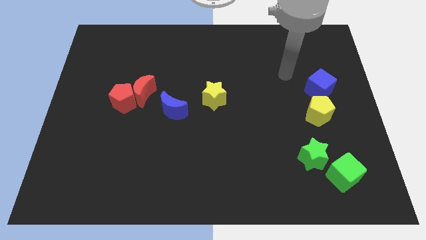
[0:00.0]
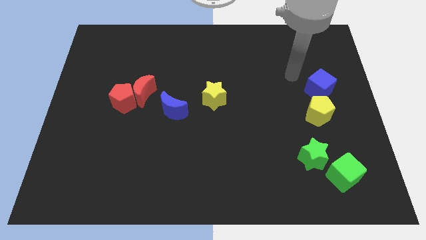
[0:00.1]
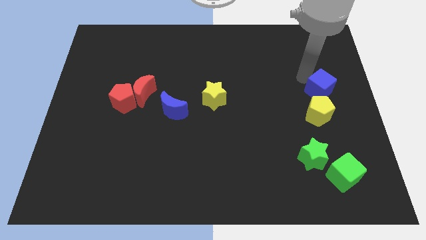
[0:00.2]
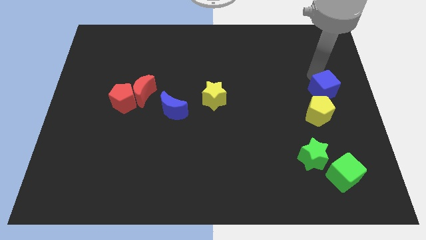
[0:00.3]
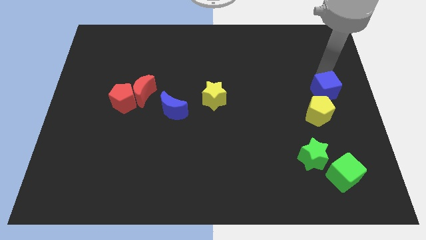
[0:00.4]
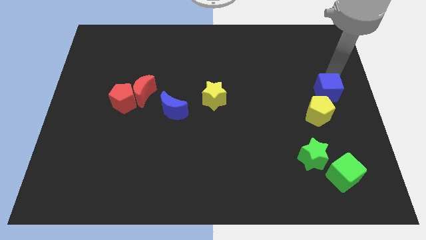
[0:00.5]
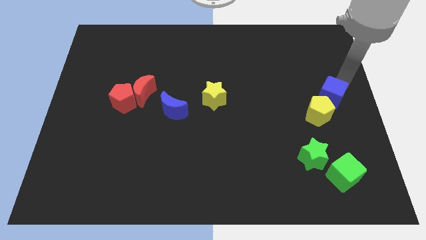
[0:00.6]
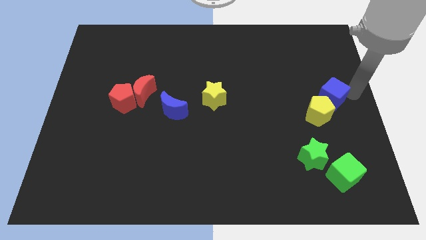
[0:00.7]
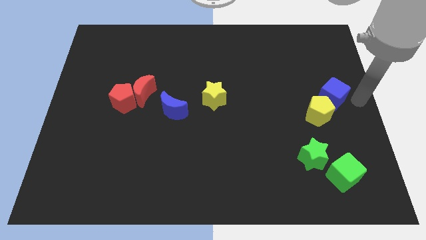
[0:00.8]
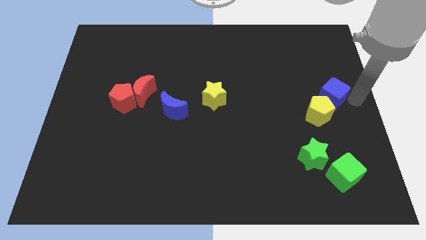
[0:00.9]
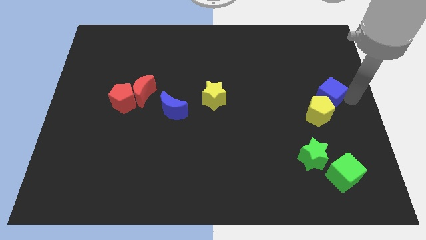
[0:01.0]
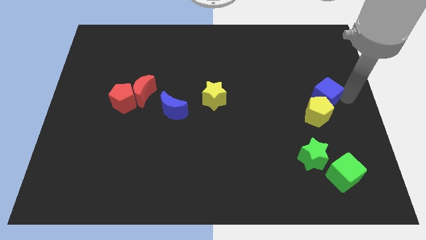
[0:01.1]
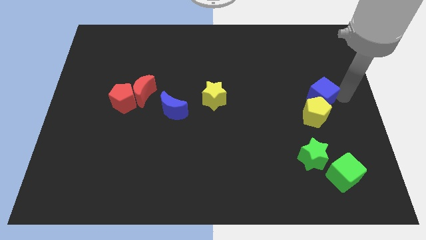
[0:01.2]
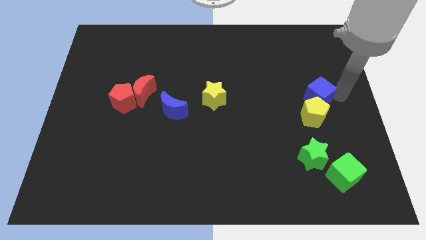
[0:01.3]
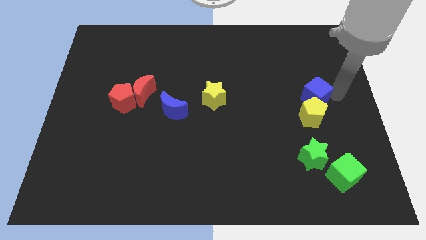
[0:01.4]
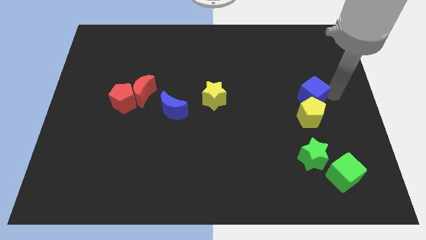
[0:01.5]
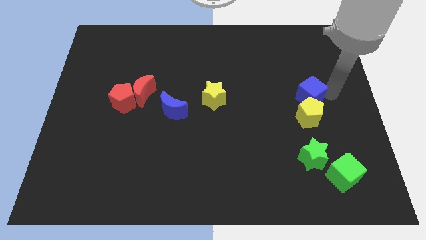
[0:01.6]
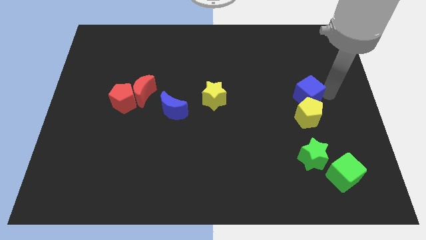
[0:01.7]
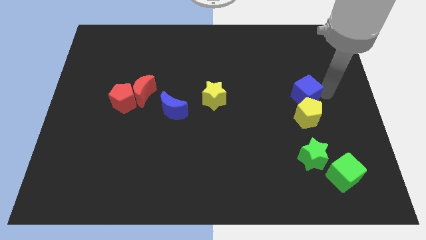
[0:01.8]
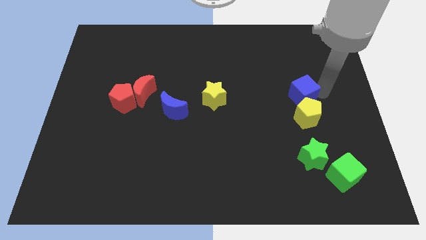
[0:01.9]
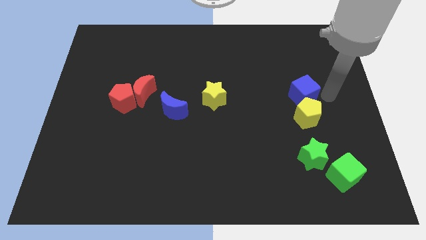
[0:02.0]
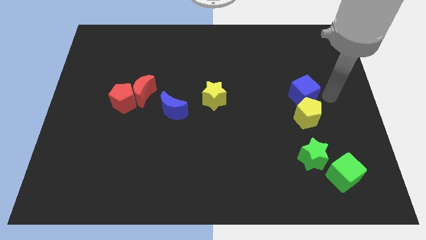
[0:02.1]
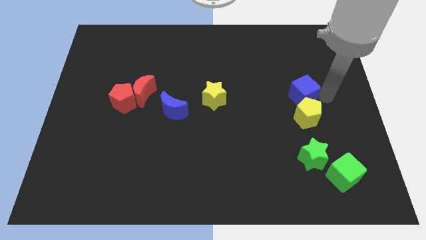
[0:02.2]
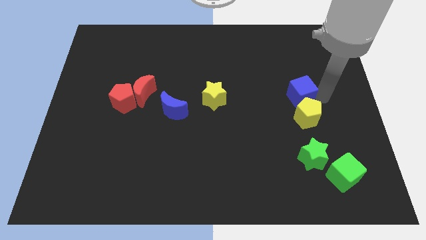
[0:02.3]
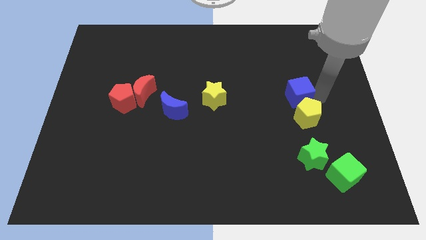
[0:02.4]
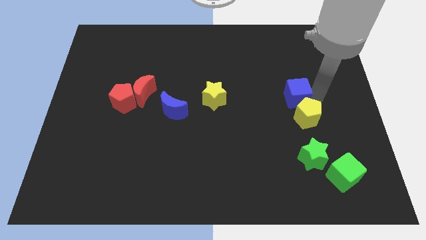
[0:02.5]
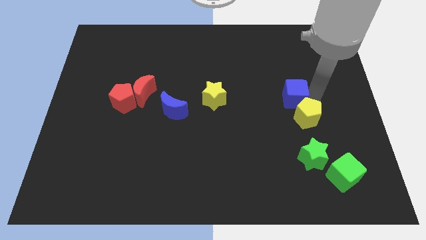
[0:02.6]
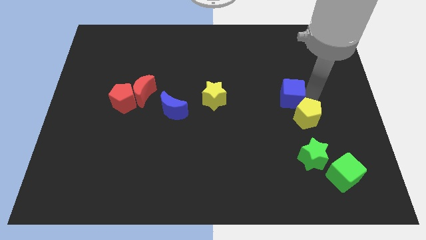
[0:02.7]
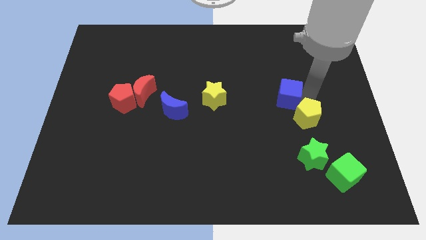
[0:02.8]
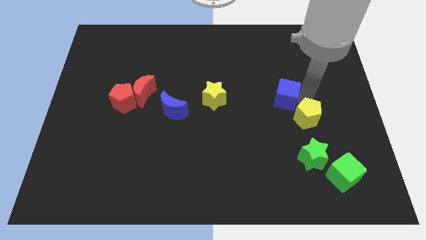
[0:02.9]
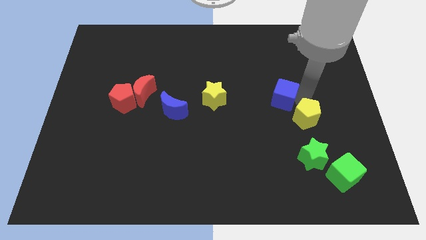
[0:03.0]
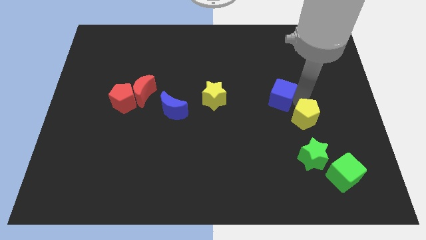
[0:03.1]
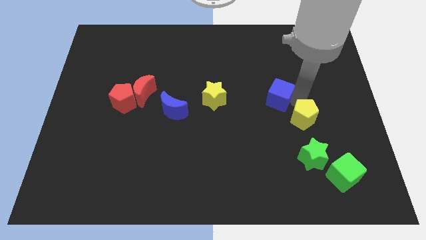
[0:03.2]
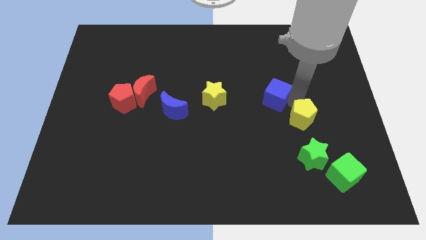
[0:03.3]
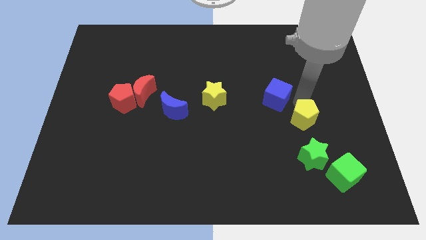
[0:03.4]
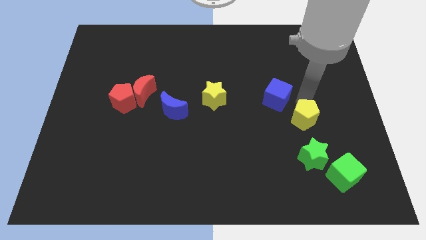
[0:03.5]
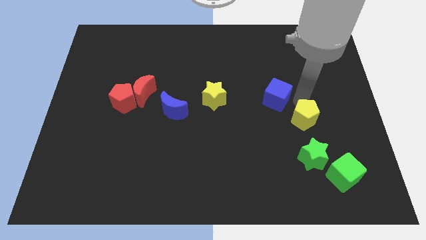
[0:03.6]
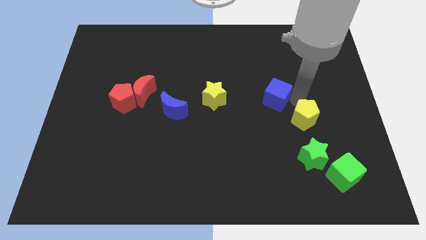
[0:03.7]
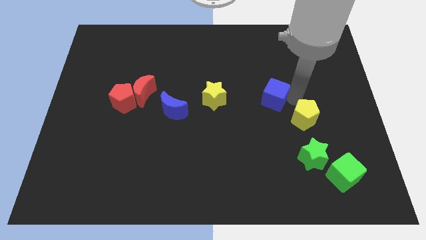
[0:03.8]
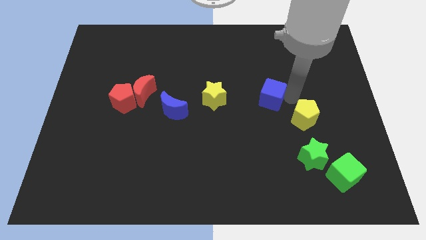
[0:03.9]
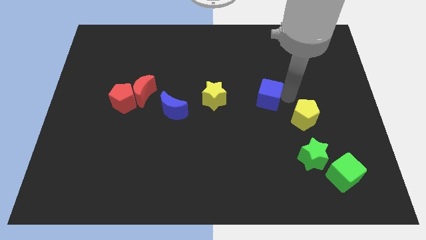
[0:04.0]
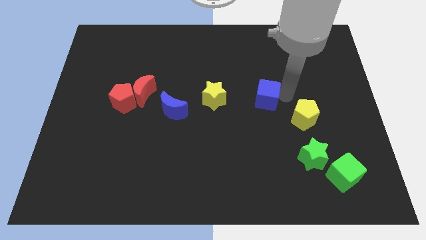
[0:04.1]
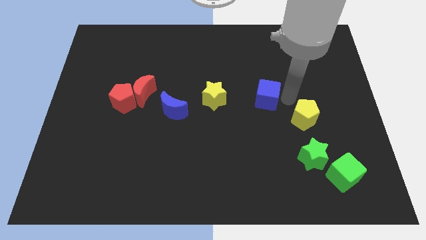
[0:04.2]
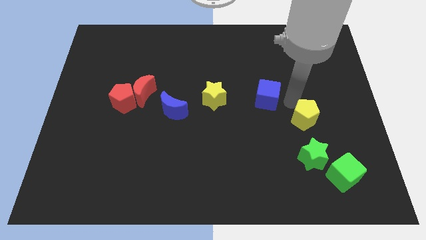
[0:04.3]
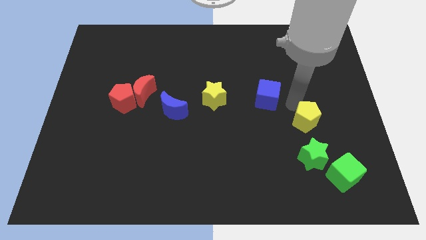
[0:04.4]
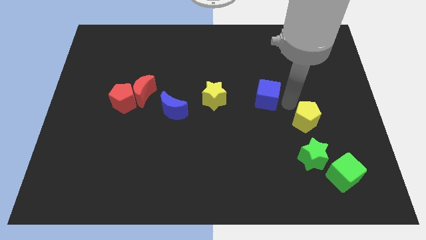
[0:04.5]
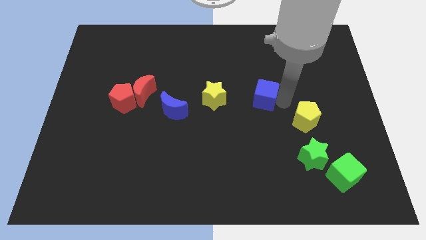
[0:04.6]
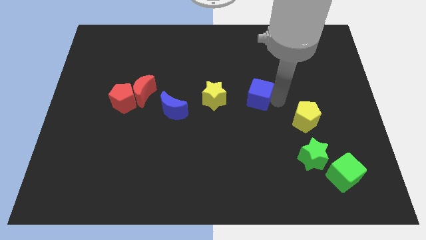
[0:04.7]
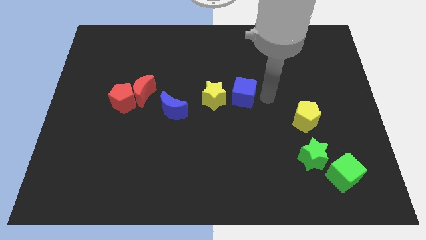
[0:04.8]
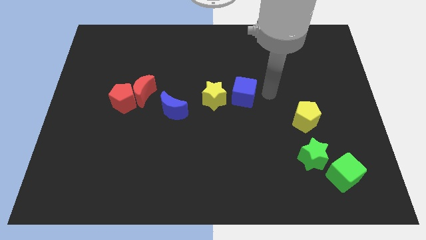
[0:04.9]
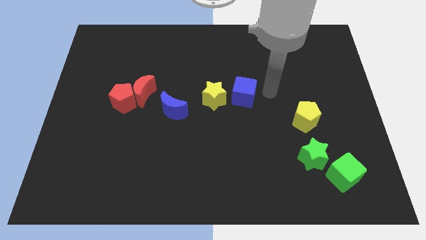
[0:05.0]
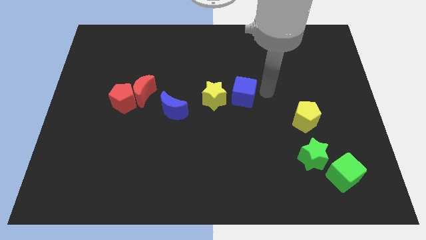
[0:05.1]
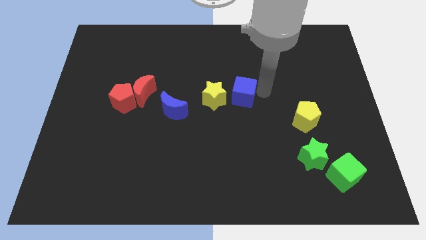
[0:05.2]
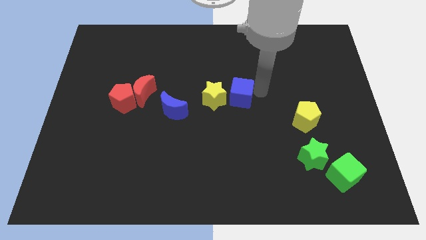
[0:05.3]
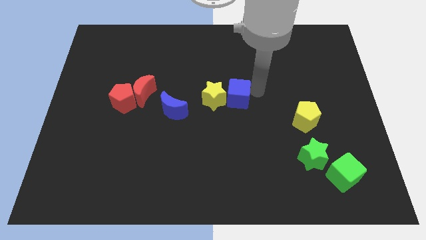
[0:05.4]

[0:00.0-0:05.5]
move the blue cube towards the yellow star

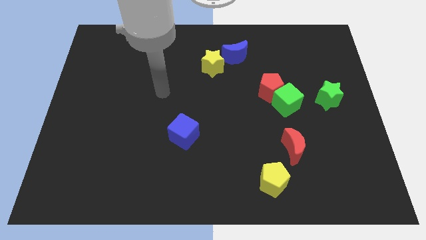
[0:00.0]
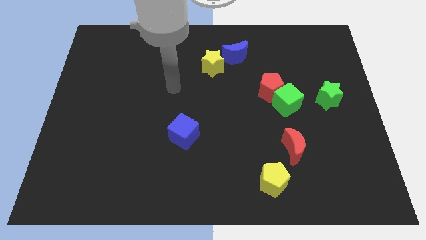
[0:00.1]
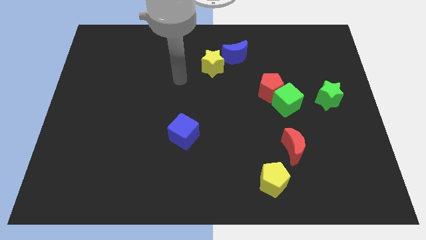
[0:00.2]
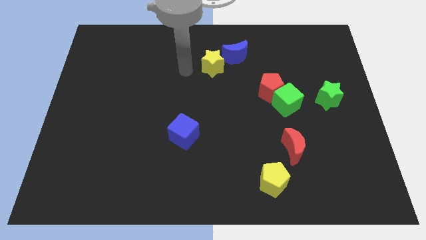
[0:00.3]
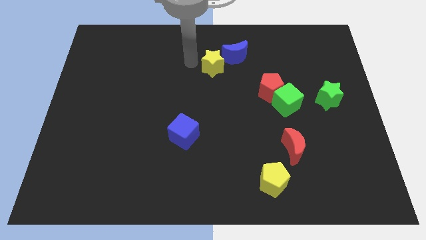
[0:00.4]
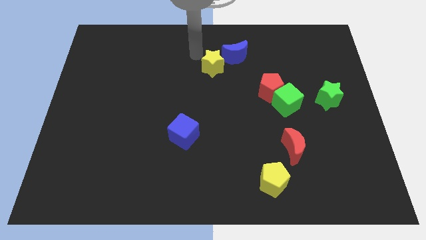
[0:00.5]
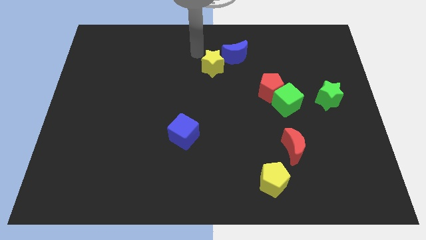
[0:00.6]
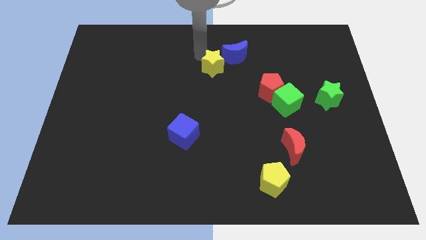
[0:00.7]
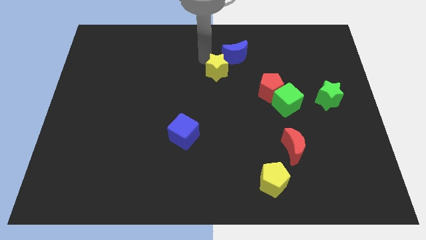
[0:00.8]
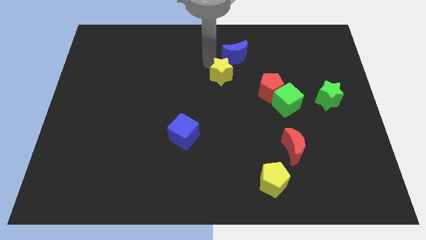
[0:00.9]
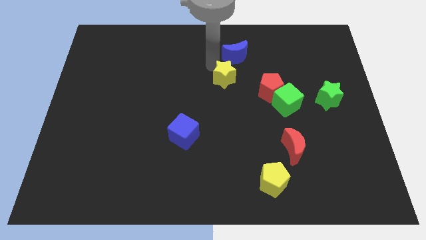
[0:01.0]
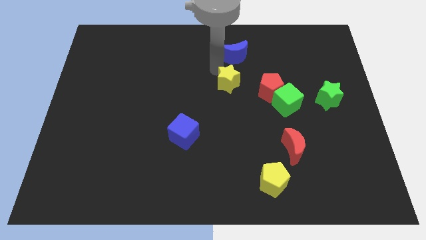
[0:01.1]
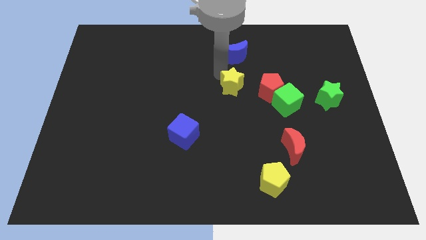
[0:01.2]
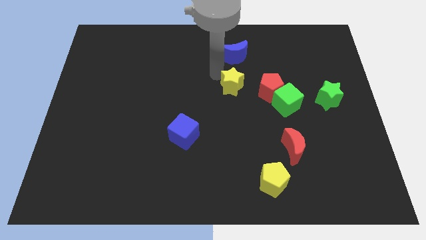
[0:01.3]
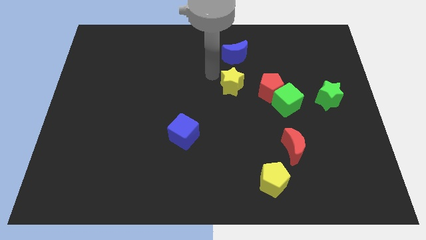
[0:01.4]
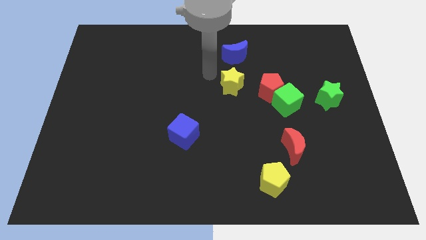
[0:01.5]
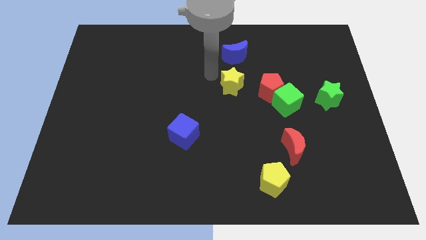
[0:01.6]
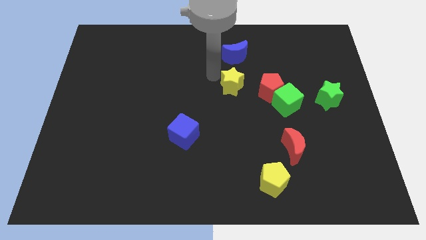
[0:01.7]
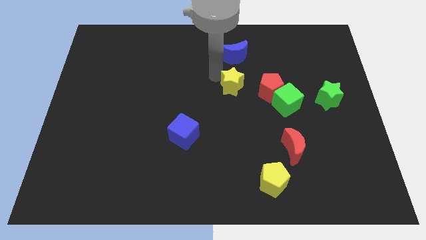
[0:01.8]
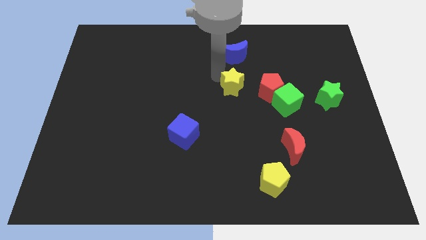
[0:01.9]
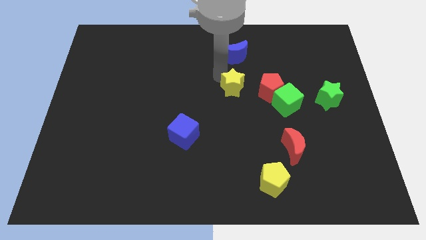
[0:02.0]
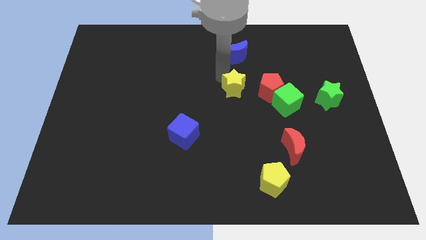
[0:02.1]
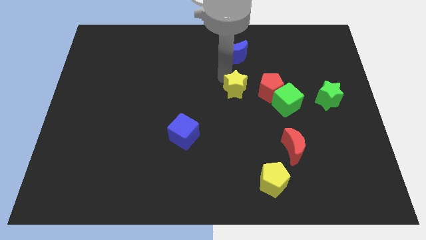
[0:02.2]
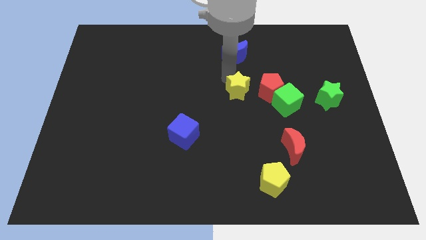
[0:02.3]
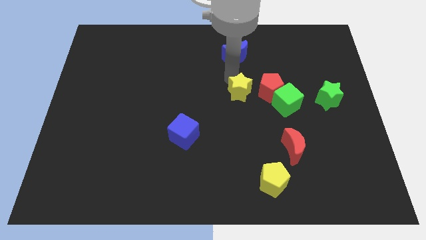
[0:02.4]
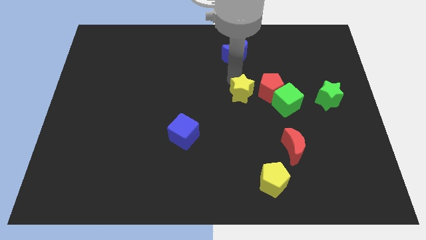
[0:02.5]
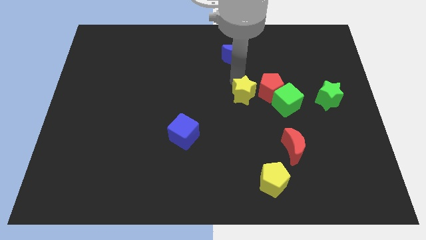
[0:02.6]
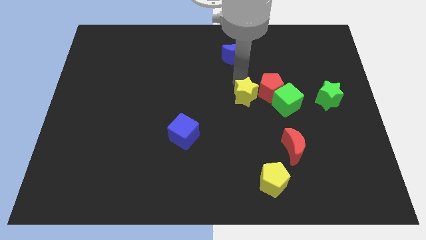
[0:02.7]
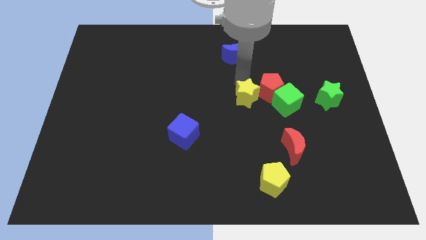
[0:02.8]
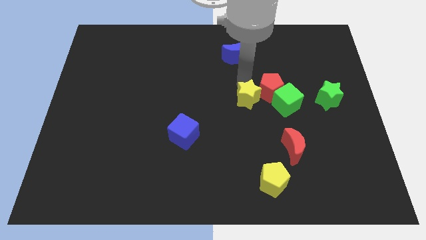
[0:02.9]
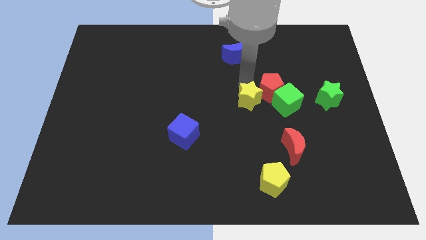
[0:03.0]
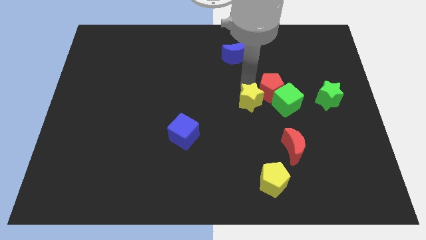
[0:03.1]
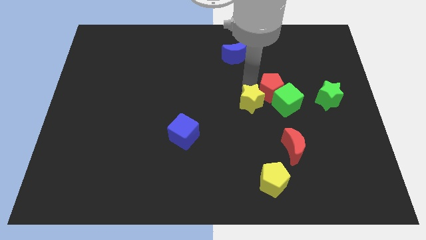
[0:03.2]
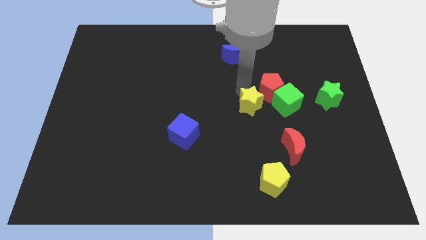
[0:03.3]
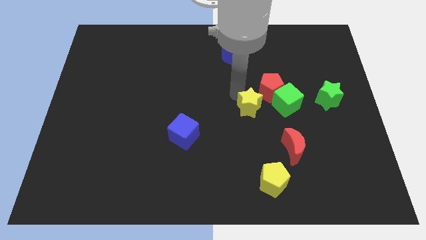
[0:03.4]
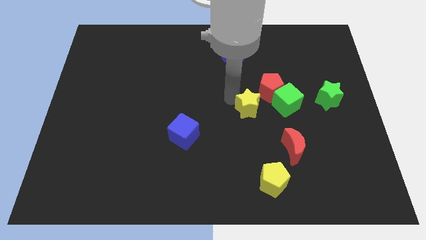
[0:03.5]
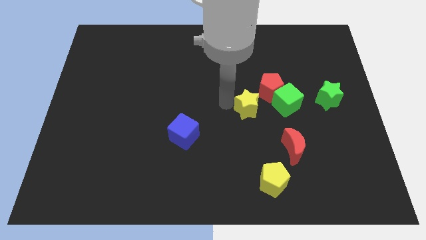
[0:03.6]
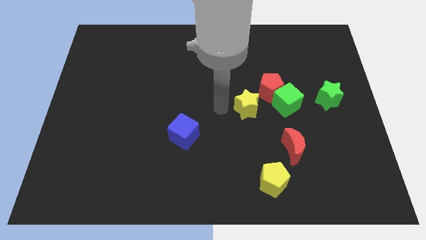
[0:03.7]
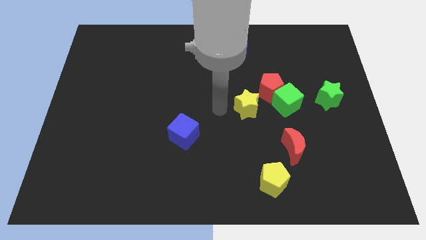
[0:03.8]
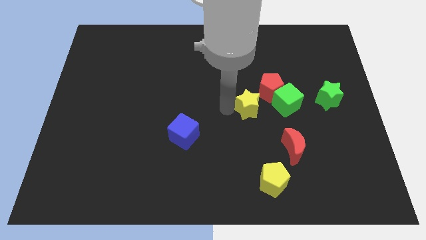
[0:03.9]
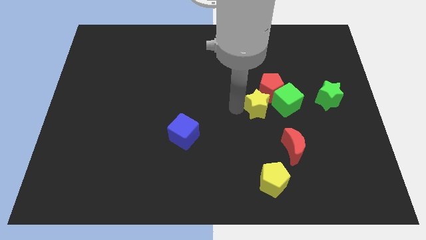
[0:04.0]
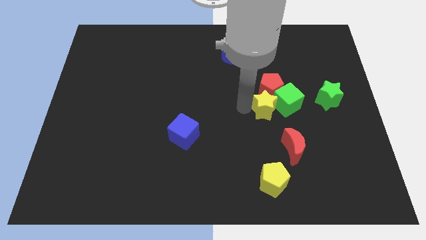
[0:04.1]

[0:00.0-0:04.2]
move the yellow star to the green cube
